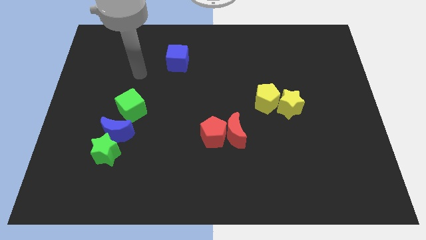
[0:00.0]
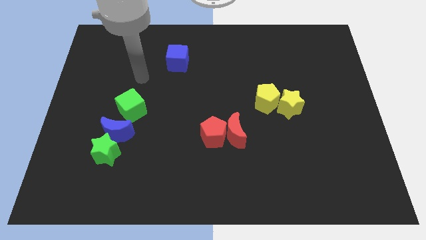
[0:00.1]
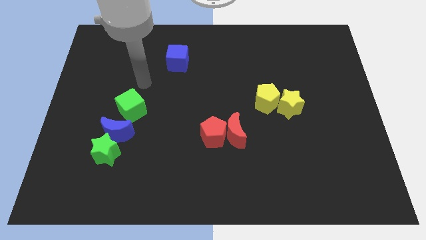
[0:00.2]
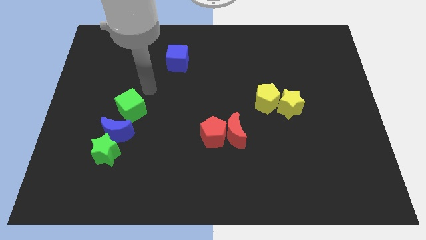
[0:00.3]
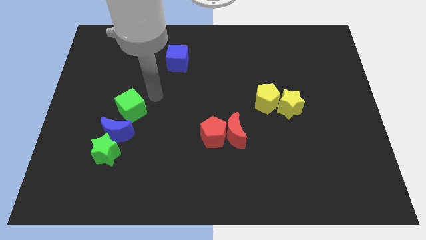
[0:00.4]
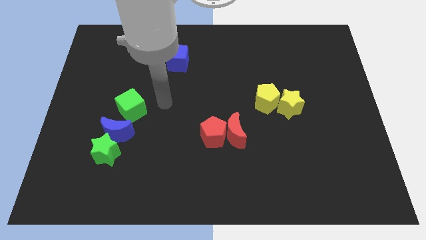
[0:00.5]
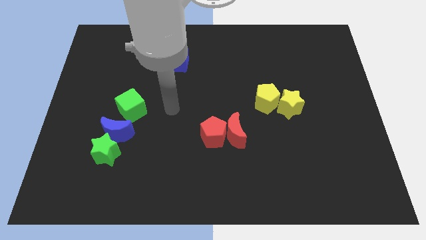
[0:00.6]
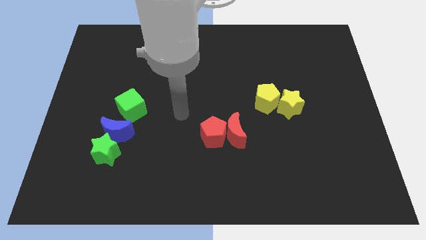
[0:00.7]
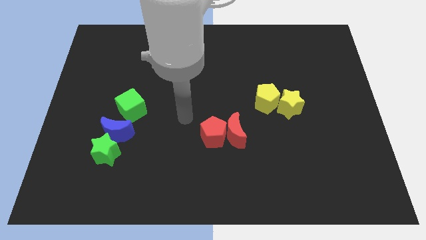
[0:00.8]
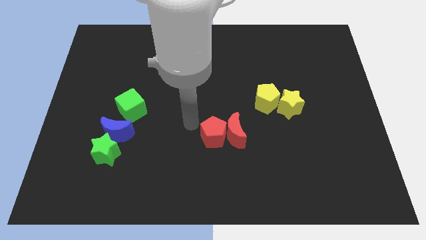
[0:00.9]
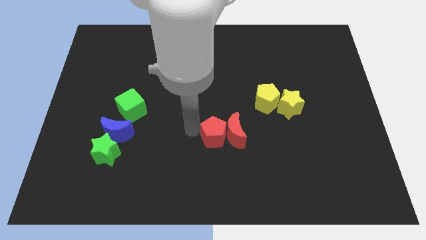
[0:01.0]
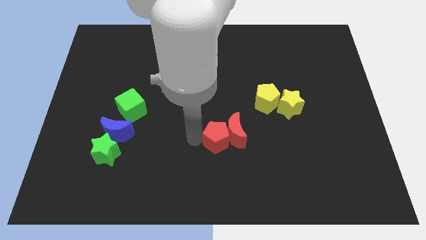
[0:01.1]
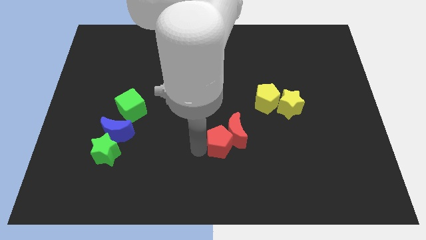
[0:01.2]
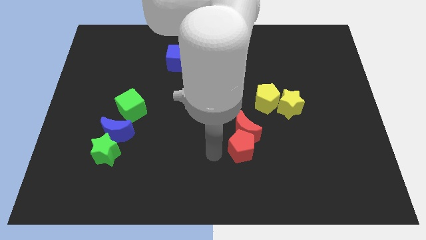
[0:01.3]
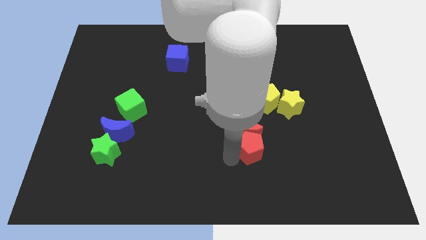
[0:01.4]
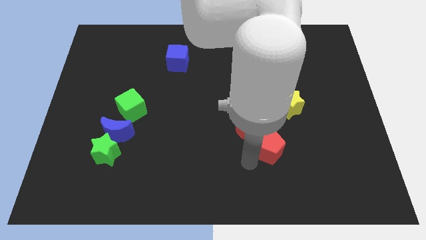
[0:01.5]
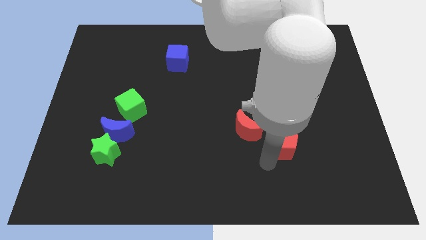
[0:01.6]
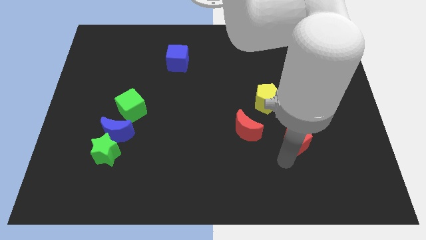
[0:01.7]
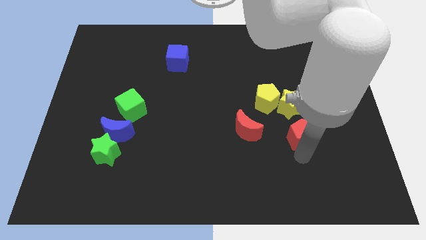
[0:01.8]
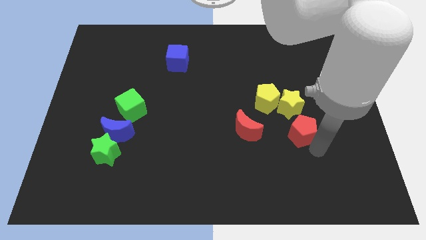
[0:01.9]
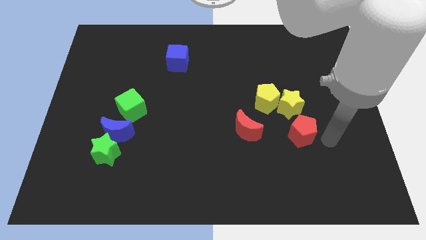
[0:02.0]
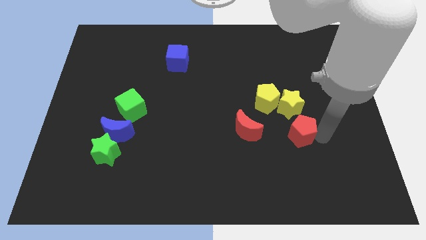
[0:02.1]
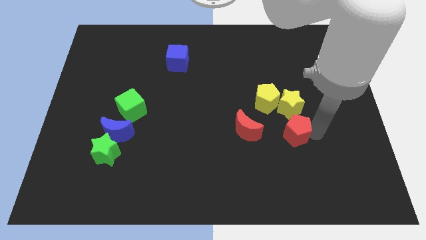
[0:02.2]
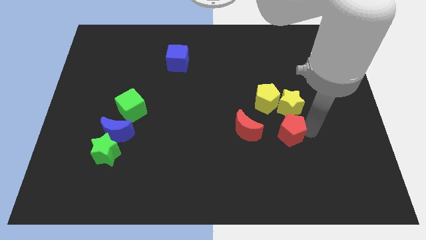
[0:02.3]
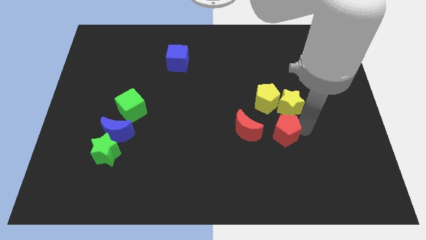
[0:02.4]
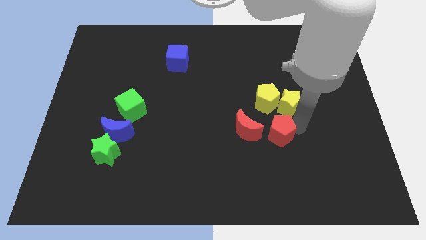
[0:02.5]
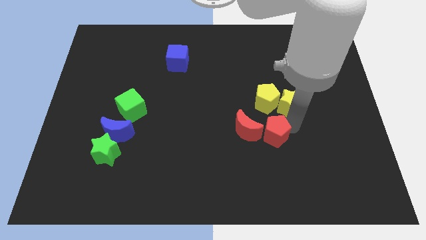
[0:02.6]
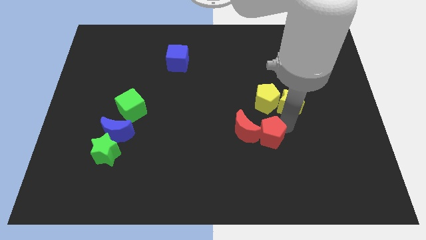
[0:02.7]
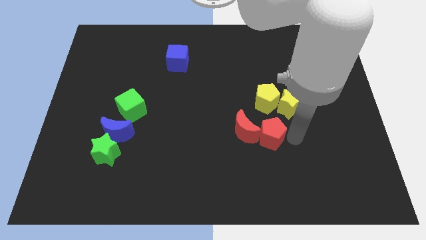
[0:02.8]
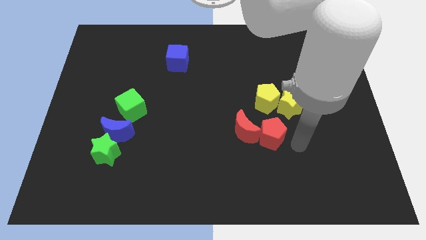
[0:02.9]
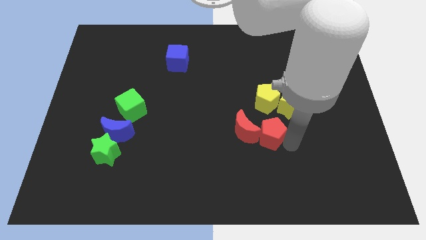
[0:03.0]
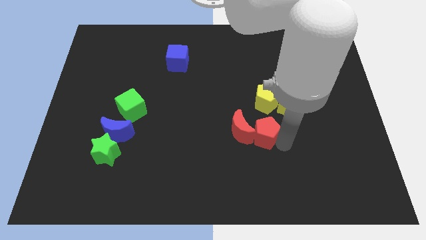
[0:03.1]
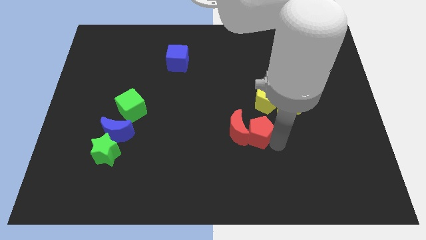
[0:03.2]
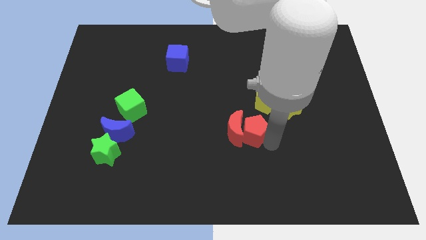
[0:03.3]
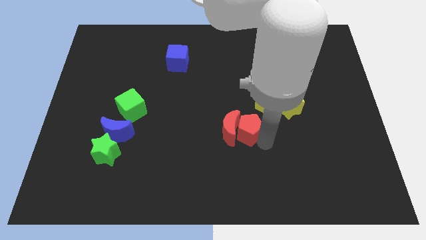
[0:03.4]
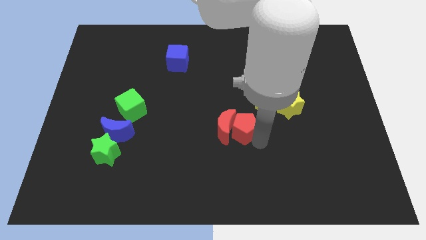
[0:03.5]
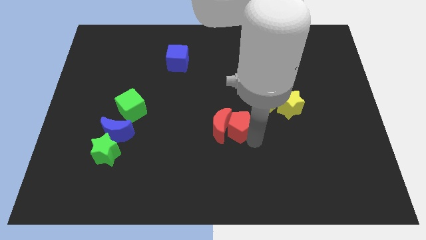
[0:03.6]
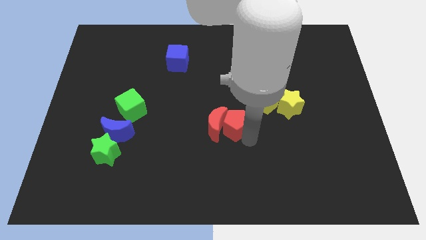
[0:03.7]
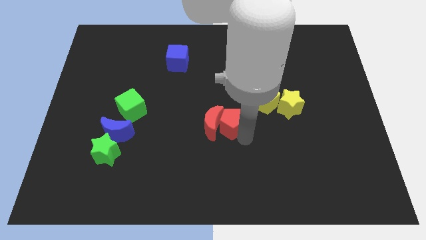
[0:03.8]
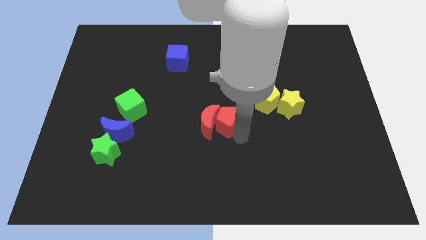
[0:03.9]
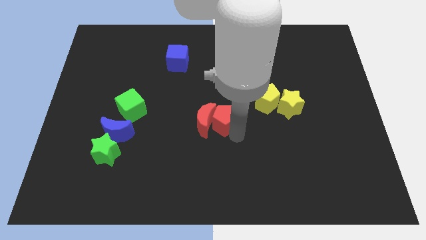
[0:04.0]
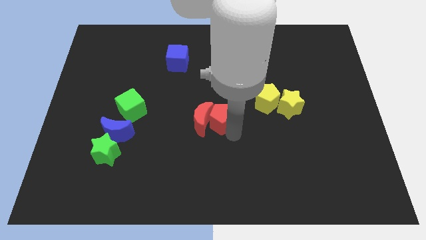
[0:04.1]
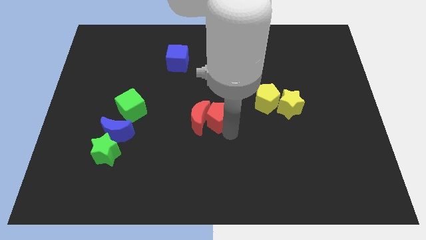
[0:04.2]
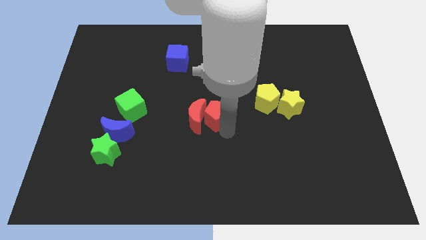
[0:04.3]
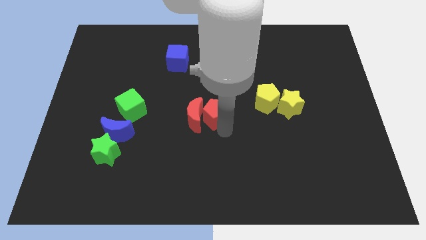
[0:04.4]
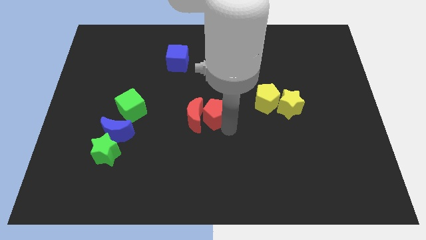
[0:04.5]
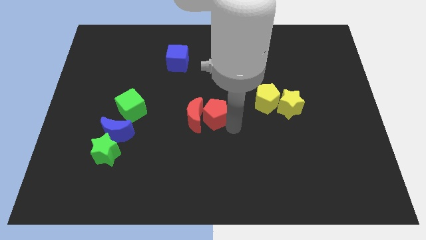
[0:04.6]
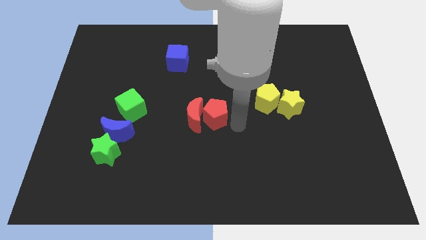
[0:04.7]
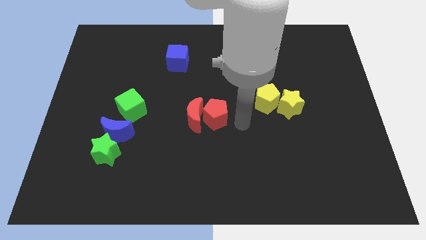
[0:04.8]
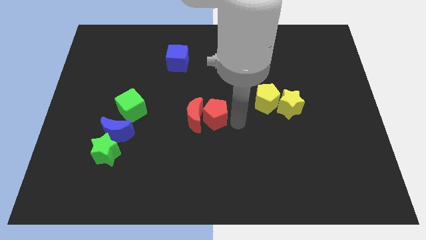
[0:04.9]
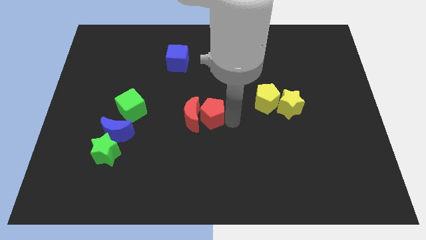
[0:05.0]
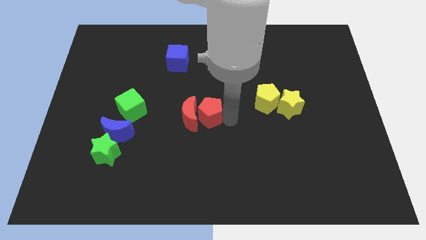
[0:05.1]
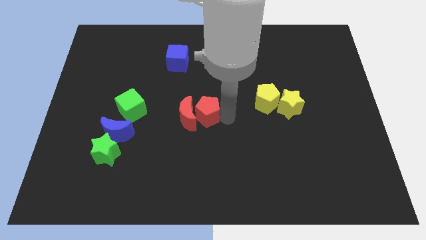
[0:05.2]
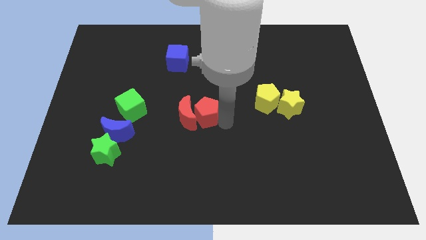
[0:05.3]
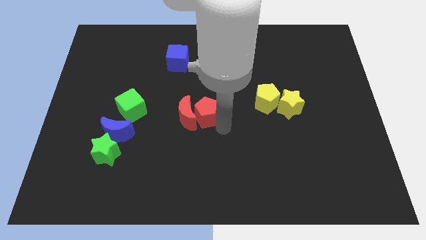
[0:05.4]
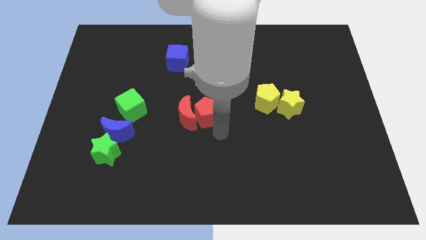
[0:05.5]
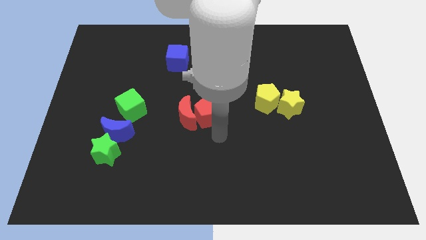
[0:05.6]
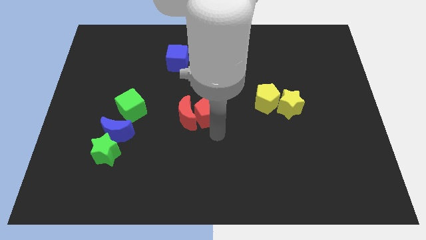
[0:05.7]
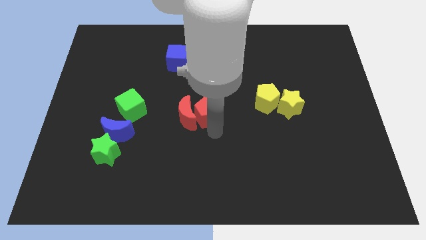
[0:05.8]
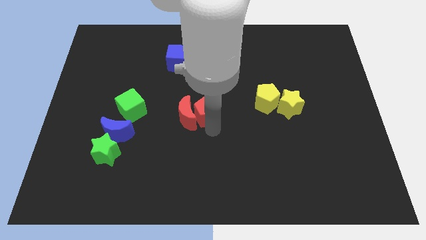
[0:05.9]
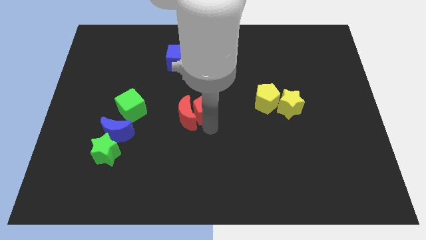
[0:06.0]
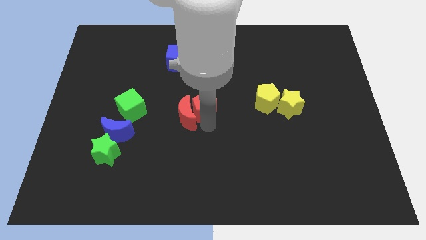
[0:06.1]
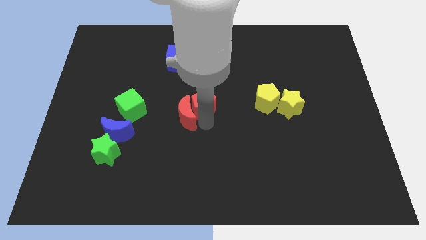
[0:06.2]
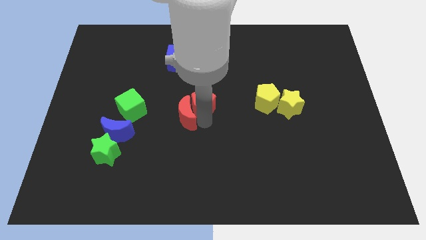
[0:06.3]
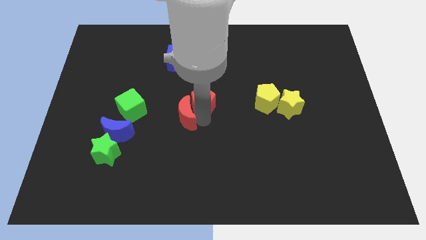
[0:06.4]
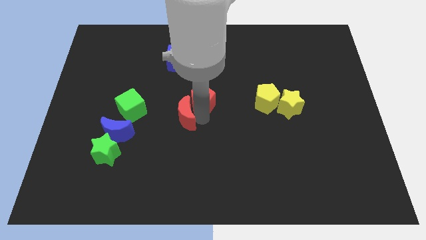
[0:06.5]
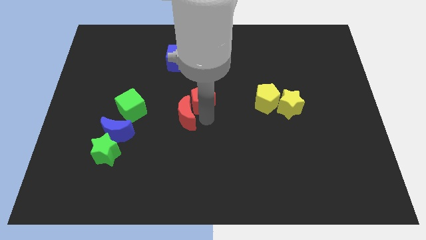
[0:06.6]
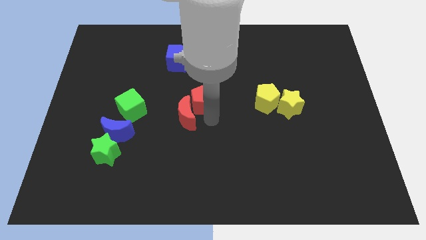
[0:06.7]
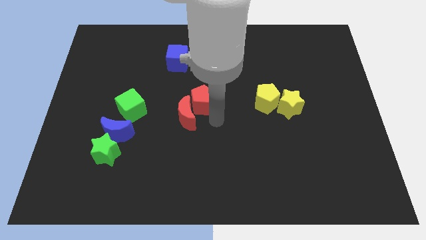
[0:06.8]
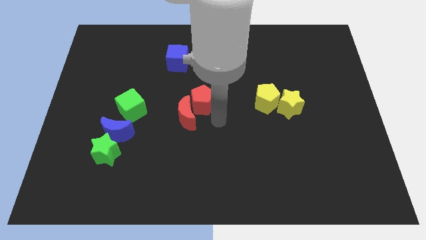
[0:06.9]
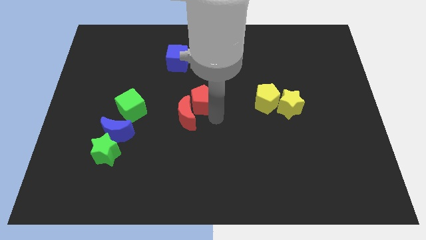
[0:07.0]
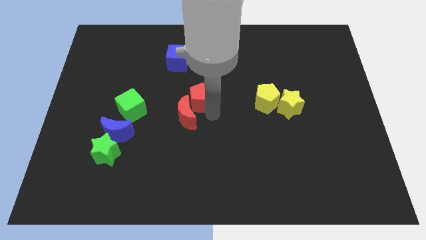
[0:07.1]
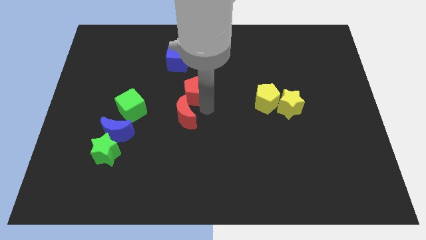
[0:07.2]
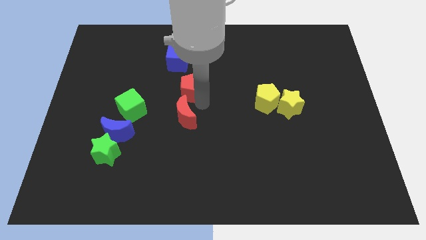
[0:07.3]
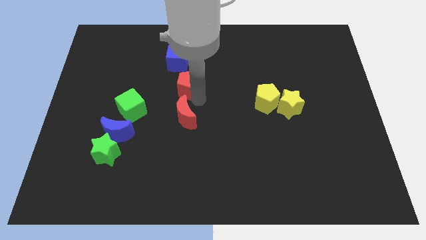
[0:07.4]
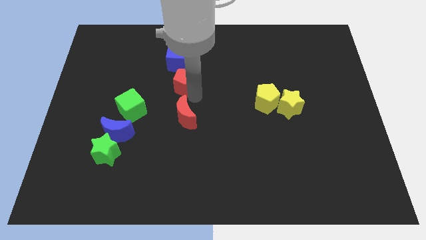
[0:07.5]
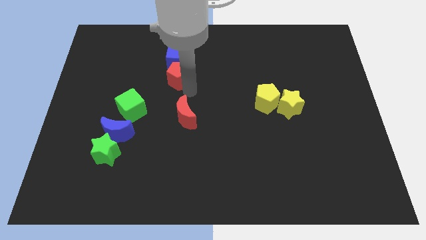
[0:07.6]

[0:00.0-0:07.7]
put the red pentagon towards the blue cube

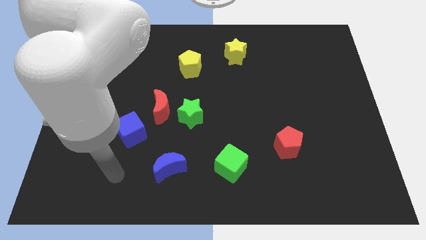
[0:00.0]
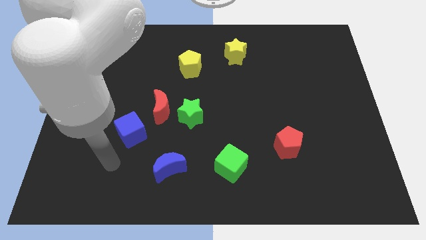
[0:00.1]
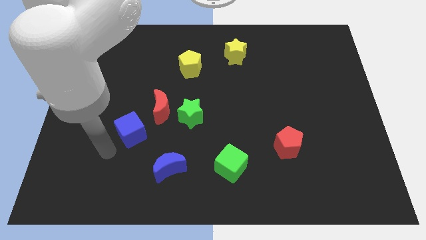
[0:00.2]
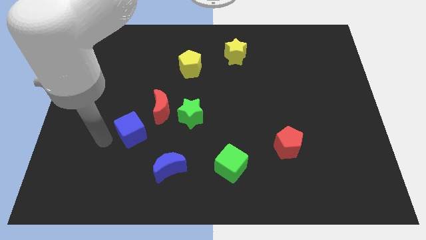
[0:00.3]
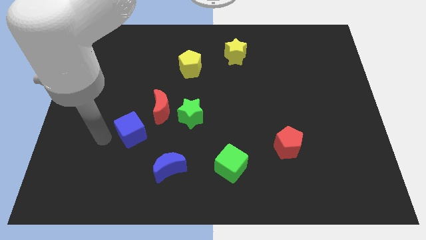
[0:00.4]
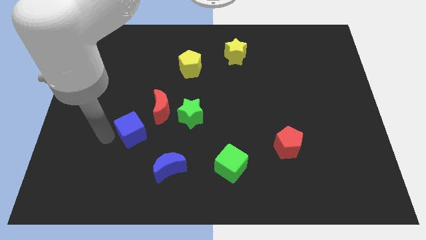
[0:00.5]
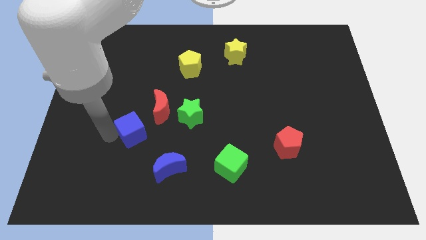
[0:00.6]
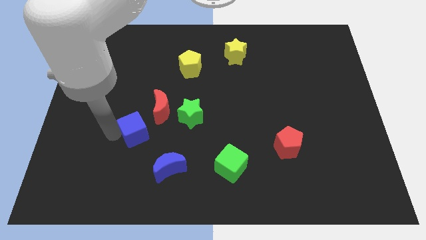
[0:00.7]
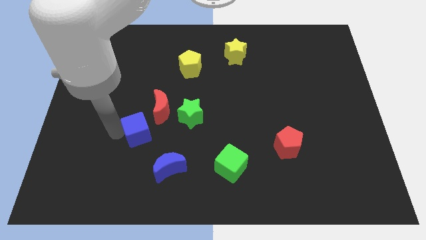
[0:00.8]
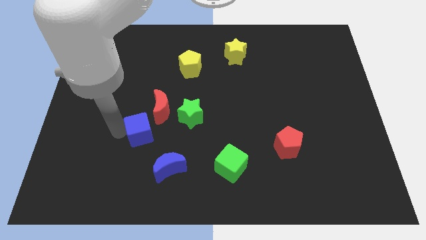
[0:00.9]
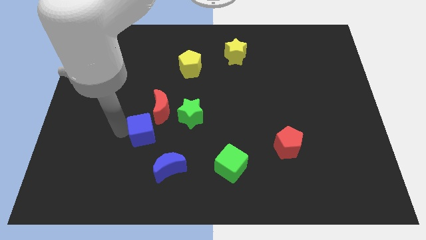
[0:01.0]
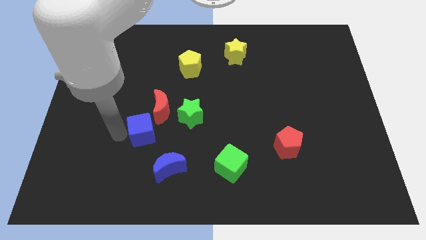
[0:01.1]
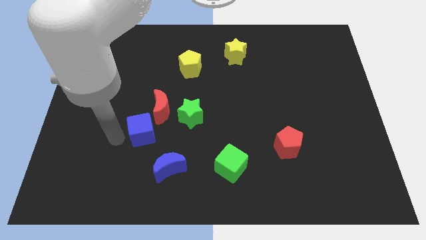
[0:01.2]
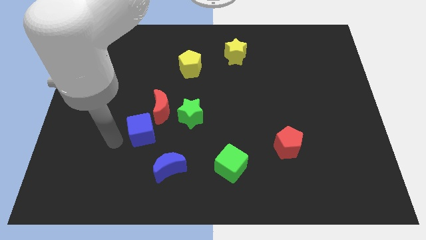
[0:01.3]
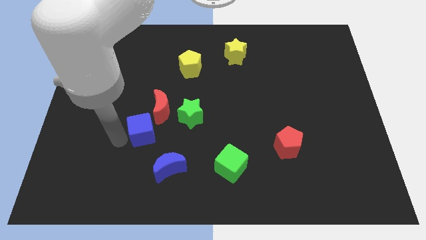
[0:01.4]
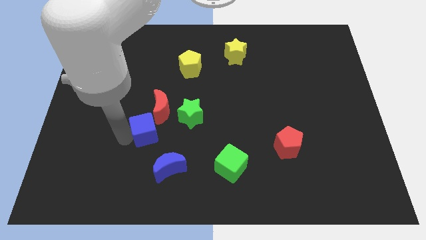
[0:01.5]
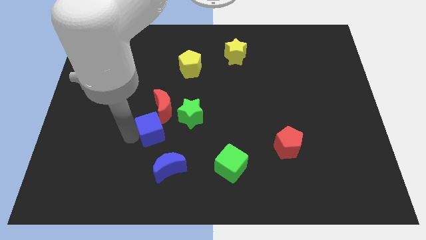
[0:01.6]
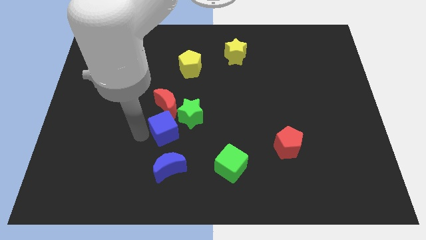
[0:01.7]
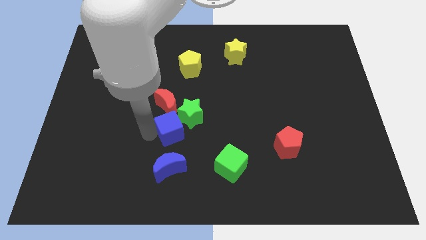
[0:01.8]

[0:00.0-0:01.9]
push the blue cube close to the green star
